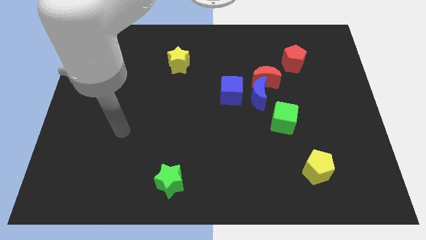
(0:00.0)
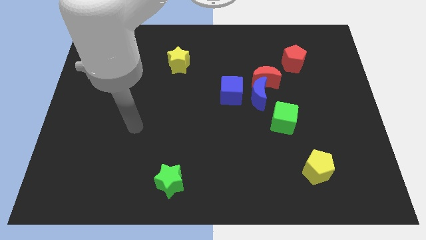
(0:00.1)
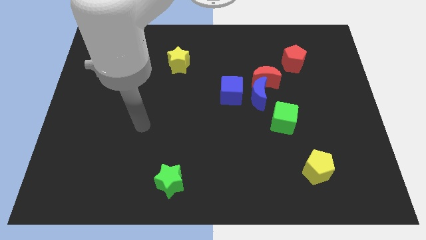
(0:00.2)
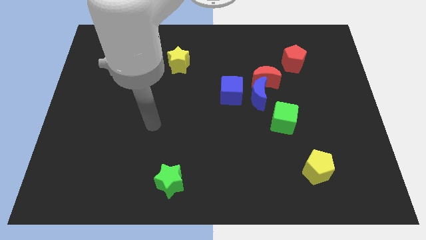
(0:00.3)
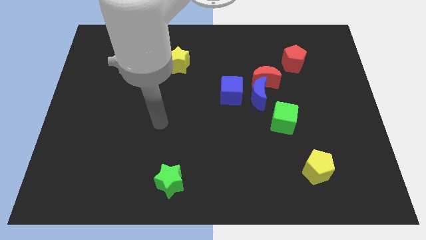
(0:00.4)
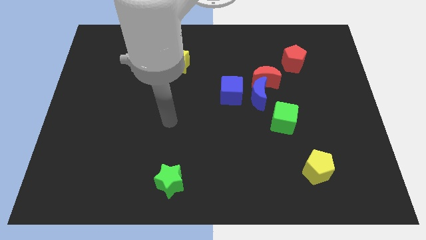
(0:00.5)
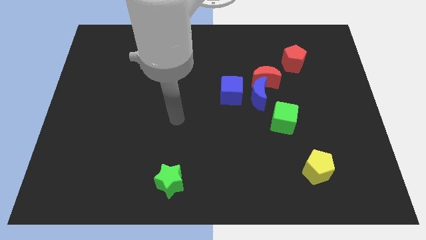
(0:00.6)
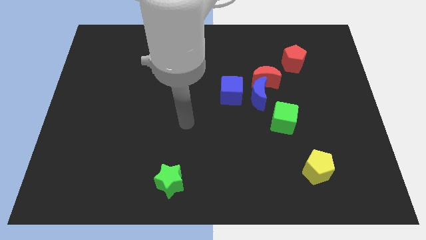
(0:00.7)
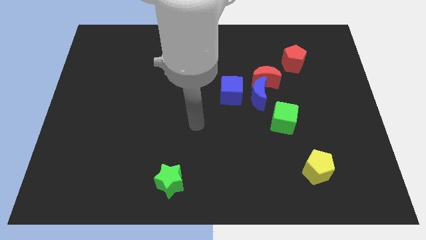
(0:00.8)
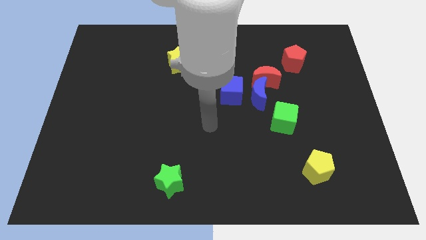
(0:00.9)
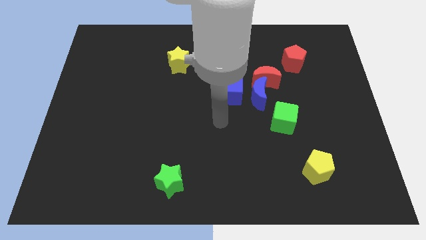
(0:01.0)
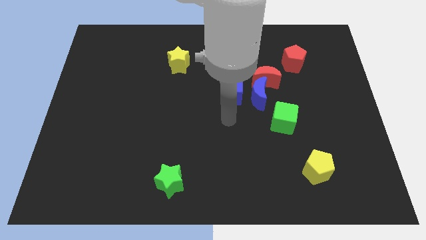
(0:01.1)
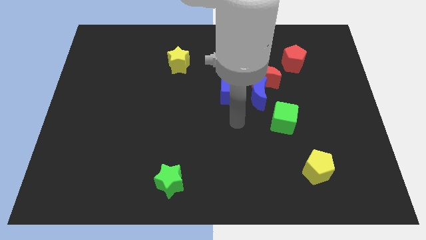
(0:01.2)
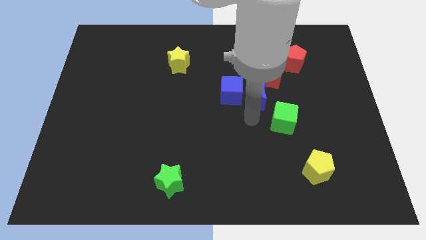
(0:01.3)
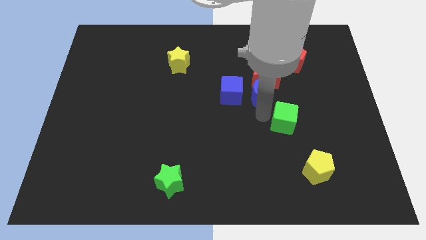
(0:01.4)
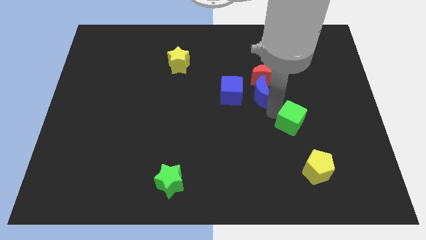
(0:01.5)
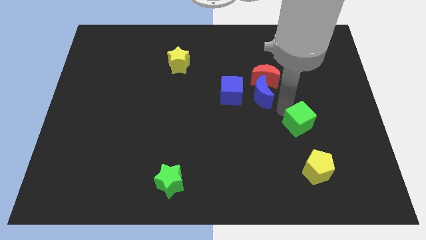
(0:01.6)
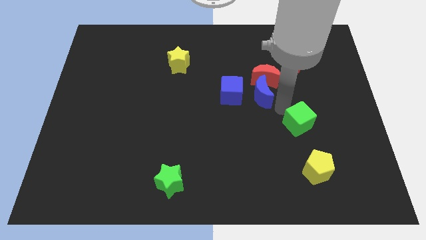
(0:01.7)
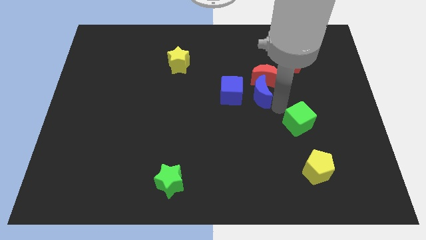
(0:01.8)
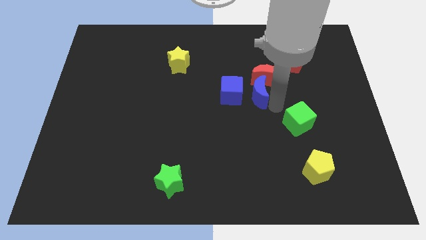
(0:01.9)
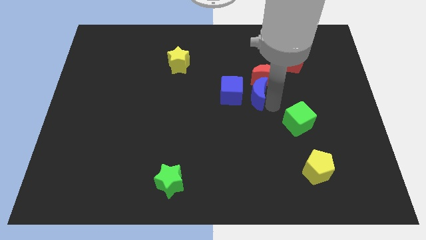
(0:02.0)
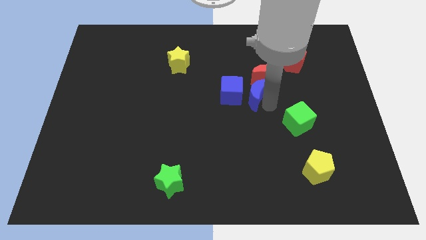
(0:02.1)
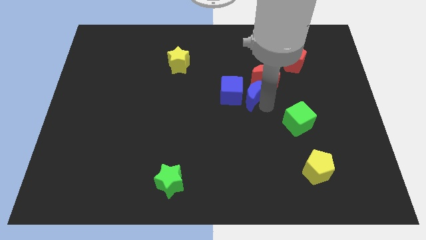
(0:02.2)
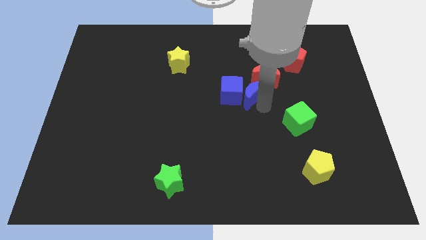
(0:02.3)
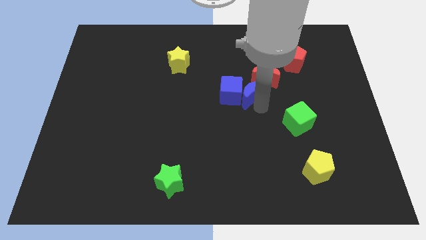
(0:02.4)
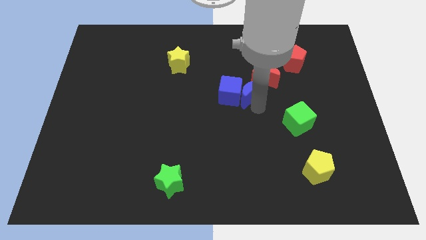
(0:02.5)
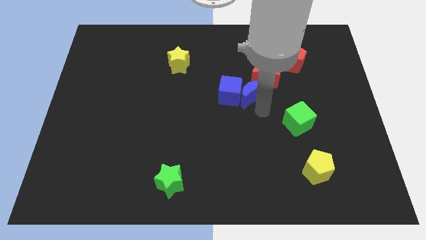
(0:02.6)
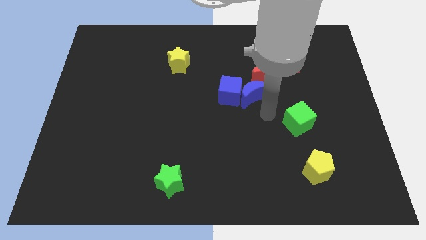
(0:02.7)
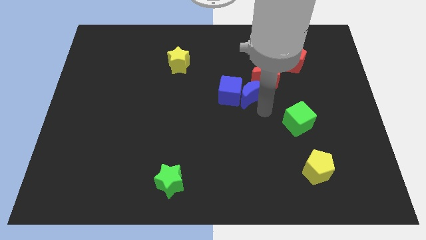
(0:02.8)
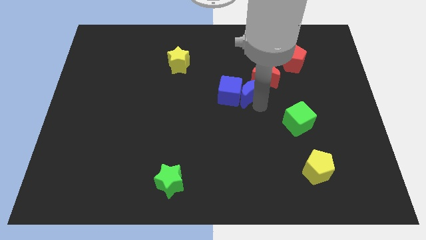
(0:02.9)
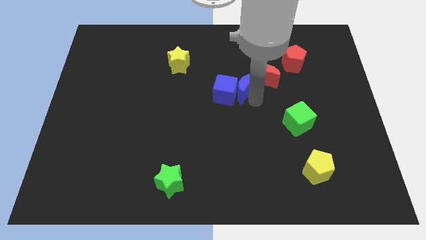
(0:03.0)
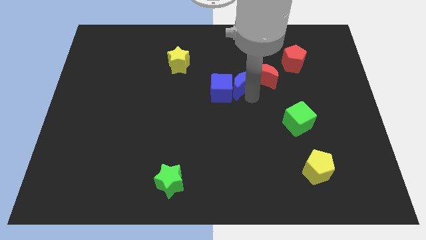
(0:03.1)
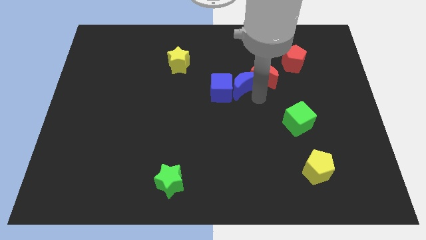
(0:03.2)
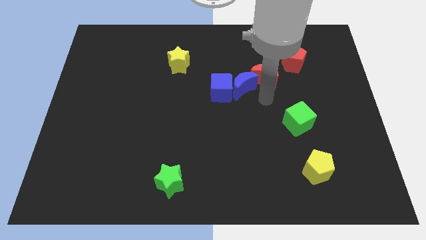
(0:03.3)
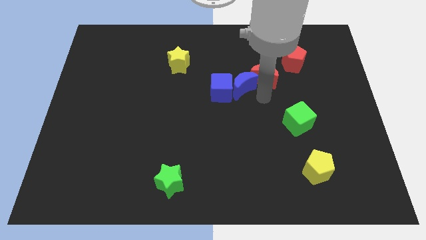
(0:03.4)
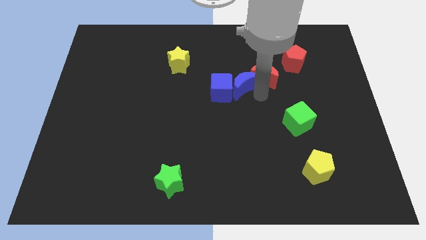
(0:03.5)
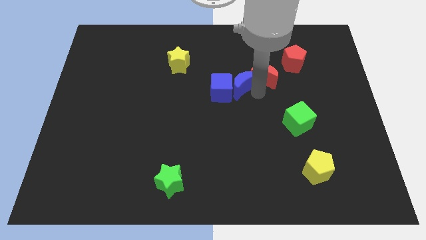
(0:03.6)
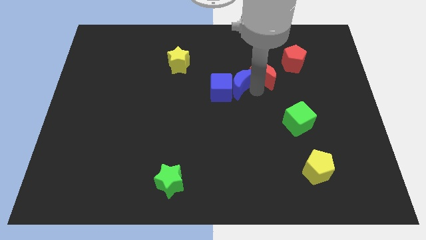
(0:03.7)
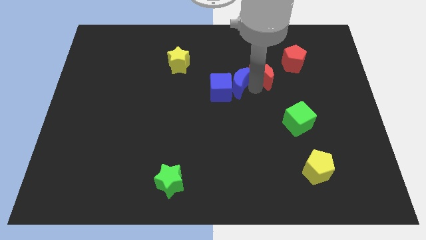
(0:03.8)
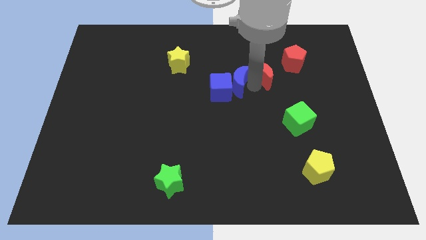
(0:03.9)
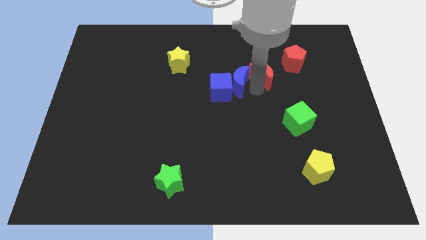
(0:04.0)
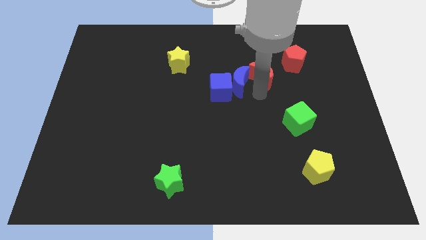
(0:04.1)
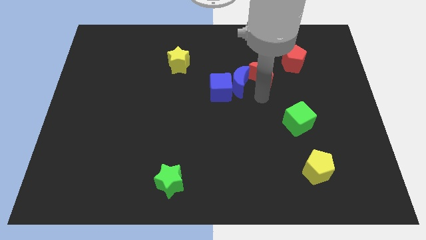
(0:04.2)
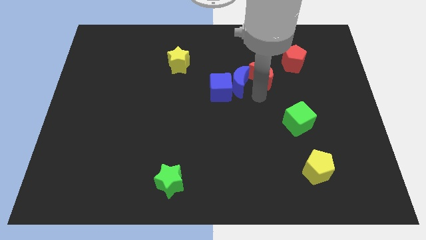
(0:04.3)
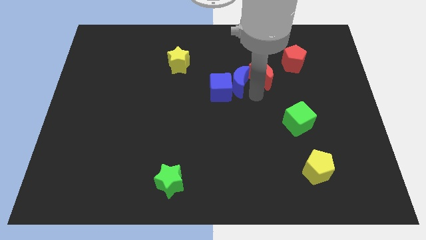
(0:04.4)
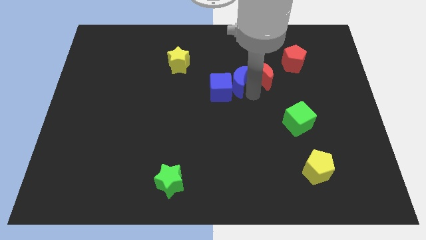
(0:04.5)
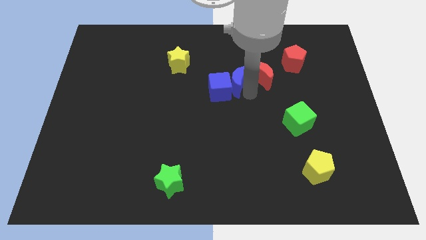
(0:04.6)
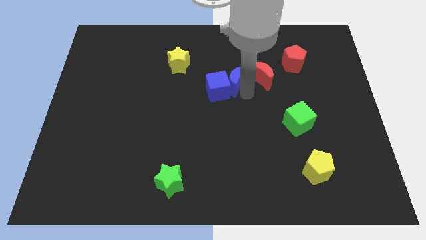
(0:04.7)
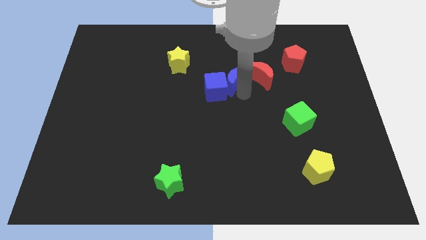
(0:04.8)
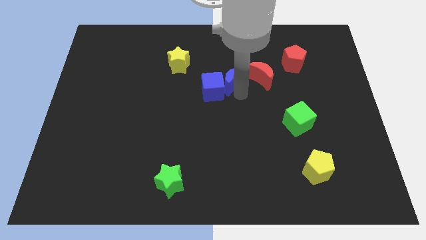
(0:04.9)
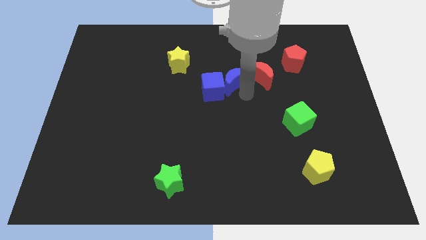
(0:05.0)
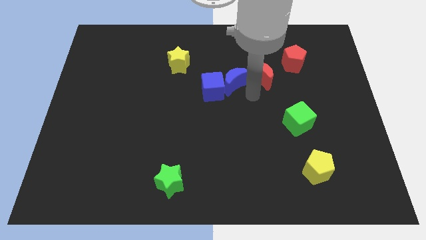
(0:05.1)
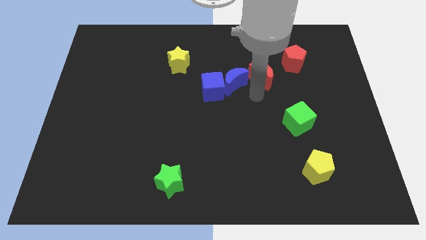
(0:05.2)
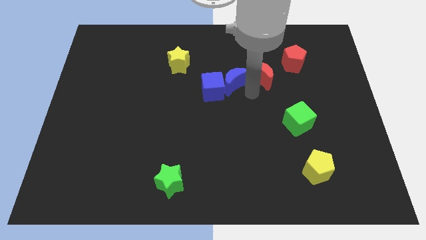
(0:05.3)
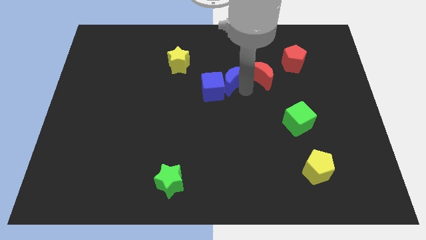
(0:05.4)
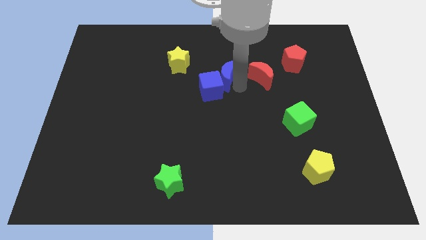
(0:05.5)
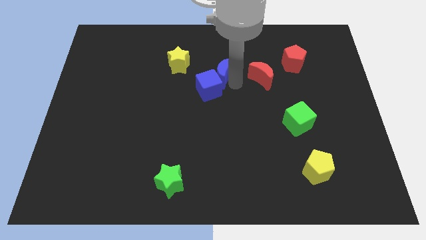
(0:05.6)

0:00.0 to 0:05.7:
pull the blue moon apart from the clump

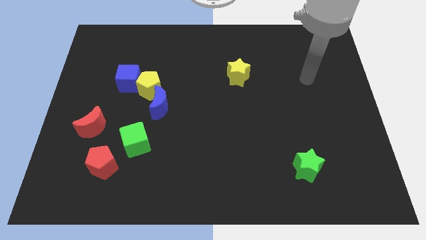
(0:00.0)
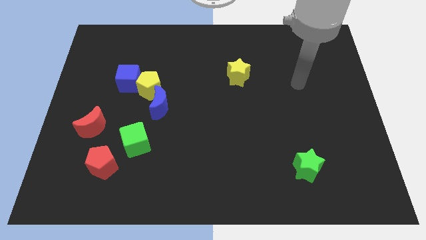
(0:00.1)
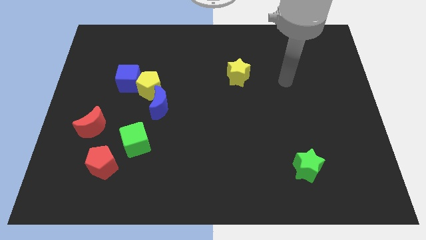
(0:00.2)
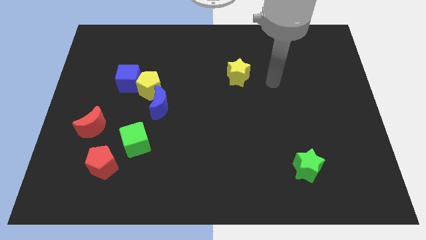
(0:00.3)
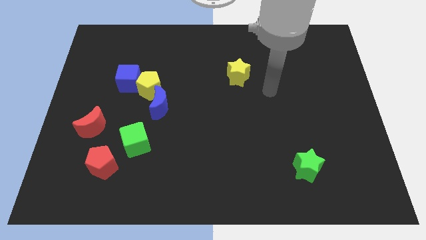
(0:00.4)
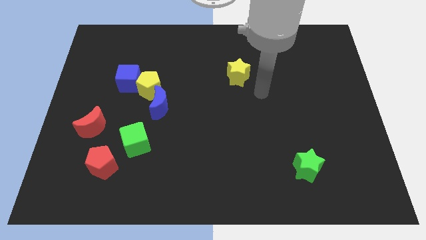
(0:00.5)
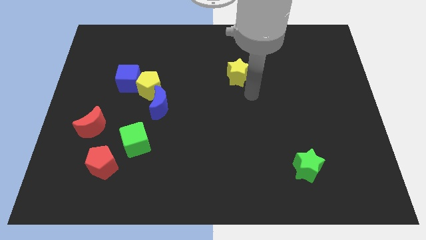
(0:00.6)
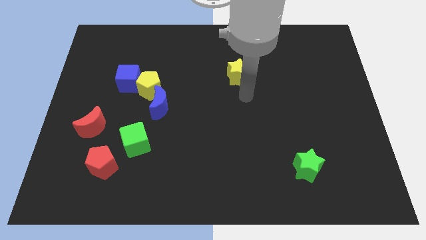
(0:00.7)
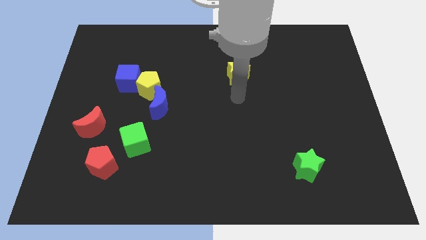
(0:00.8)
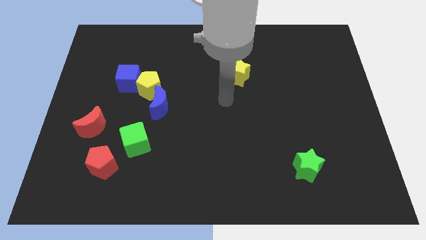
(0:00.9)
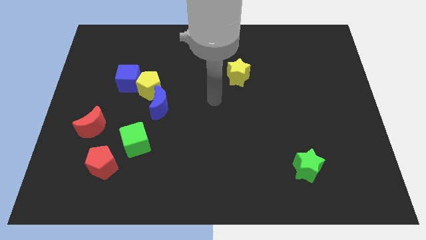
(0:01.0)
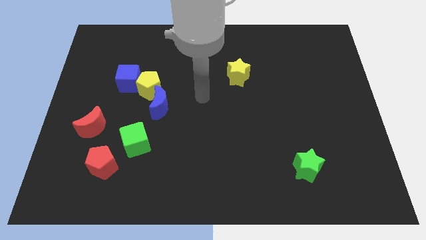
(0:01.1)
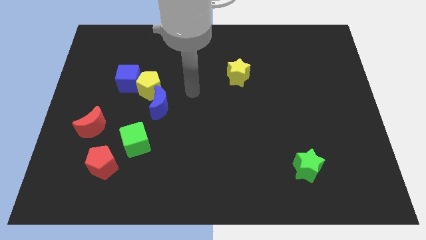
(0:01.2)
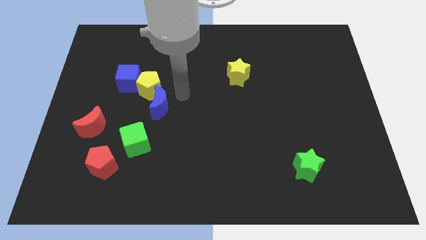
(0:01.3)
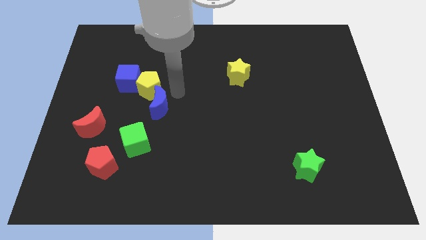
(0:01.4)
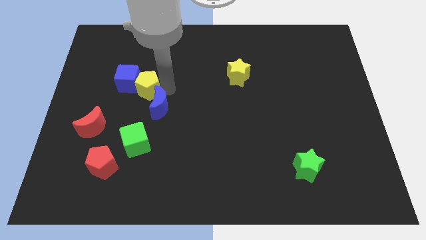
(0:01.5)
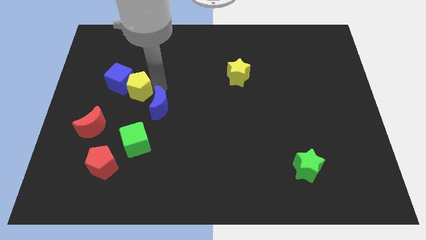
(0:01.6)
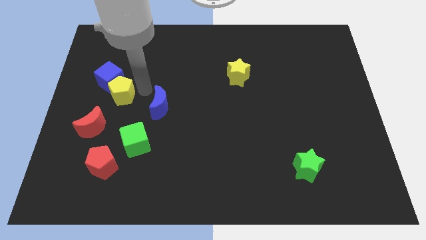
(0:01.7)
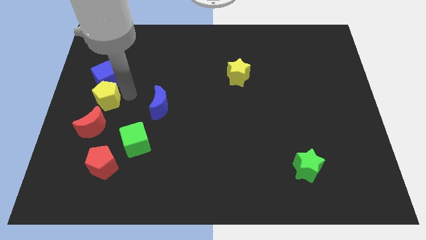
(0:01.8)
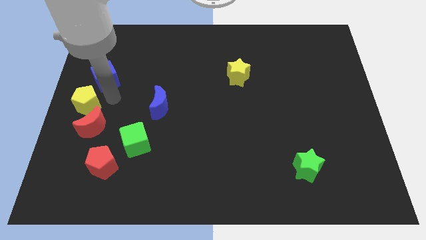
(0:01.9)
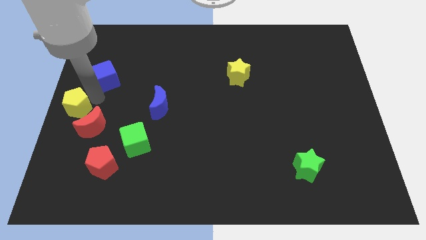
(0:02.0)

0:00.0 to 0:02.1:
separate the blue cube from the yellow pentagon

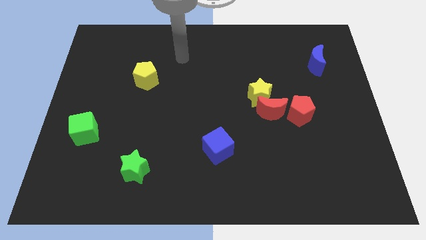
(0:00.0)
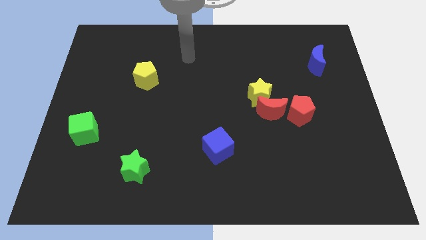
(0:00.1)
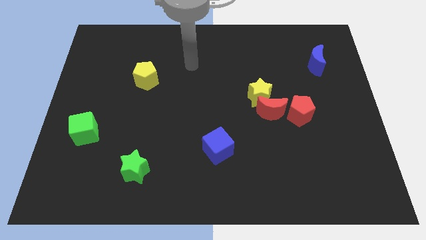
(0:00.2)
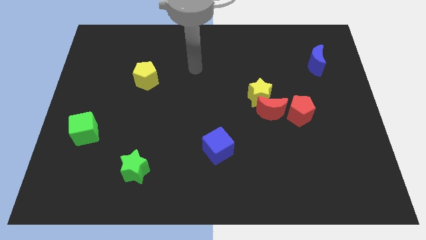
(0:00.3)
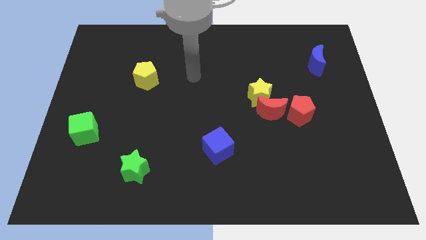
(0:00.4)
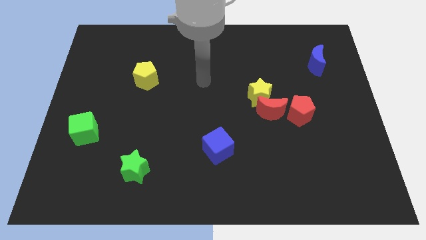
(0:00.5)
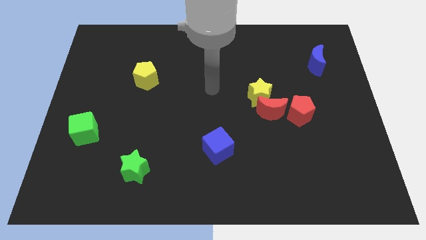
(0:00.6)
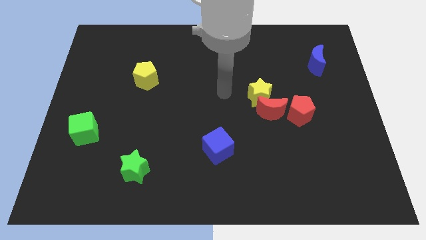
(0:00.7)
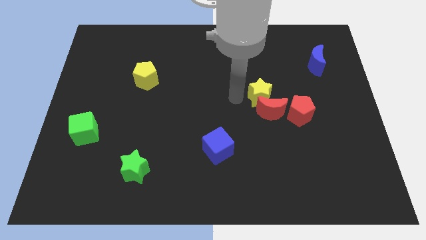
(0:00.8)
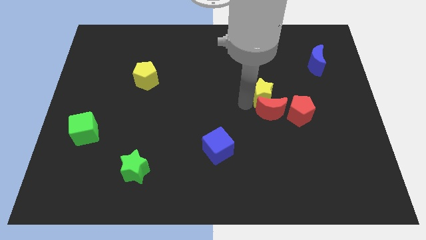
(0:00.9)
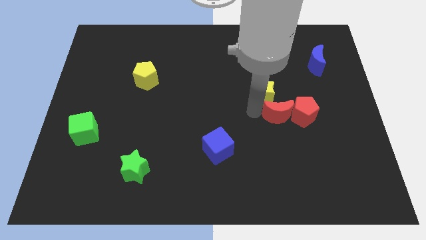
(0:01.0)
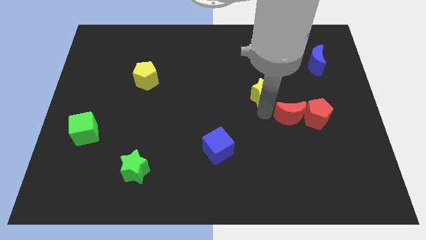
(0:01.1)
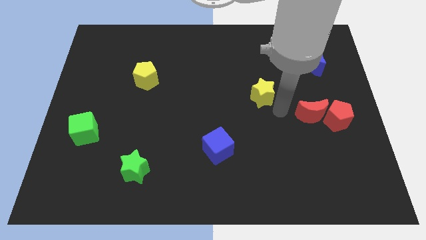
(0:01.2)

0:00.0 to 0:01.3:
pull the yellow star apart from the red moon

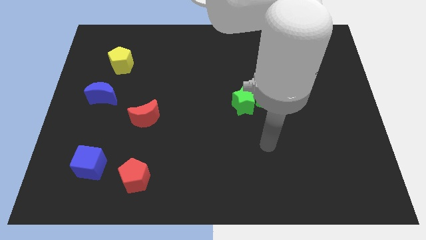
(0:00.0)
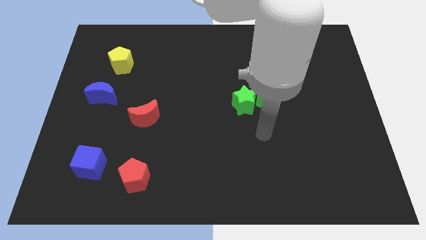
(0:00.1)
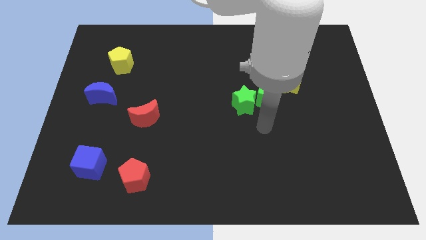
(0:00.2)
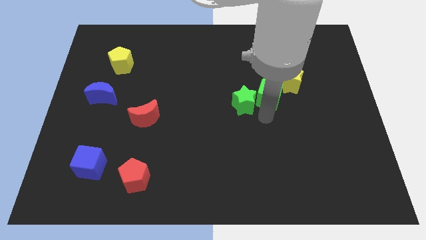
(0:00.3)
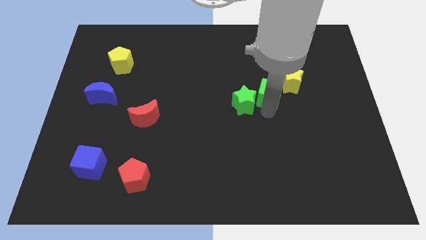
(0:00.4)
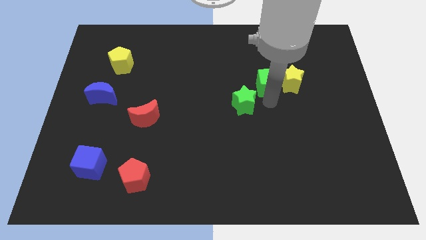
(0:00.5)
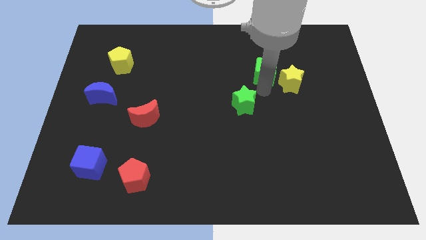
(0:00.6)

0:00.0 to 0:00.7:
move the green star away from the green cube
